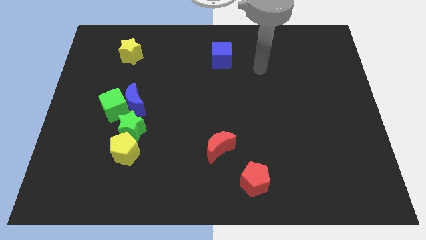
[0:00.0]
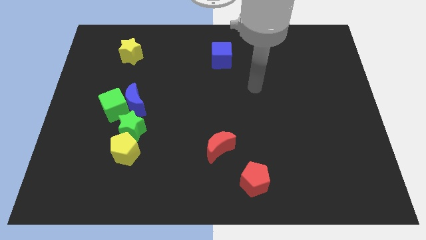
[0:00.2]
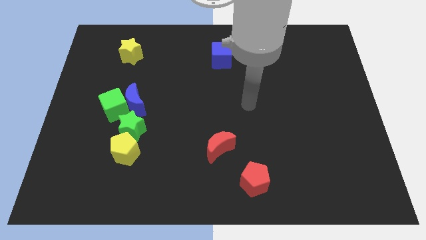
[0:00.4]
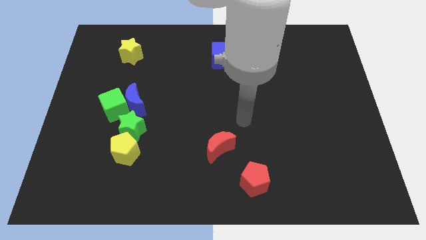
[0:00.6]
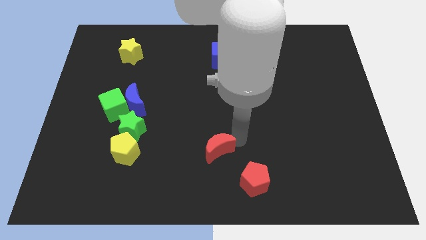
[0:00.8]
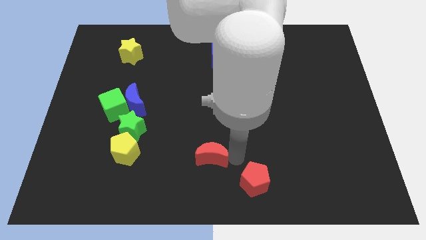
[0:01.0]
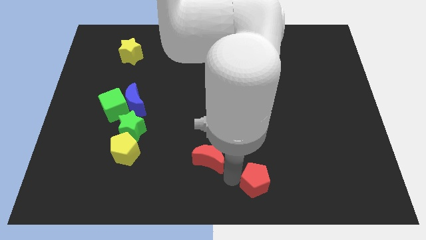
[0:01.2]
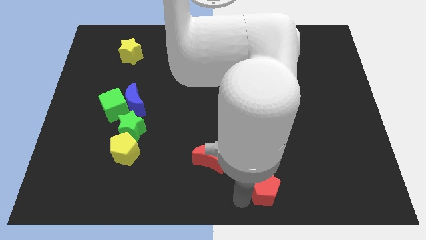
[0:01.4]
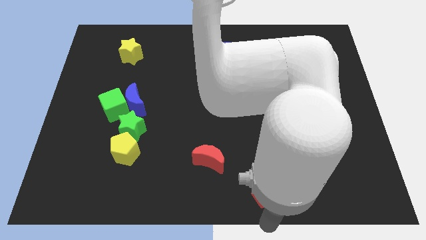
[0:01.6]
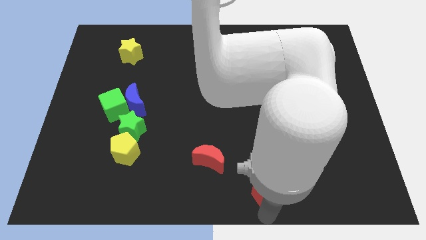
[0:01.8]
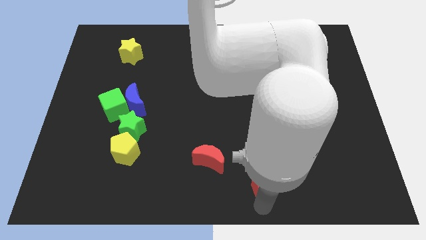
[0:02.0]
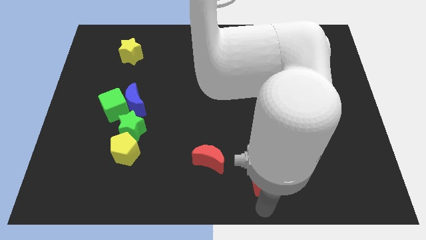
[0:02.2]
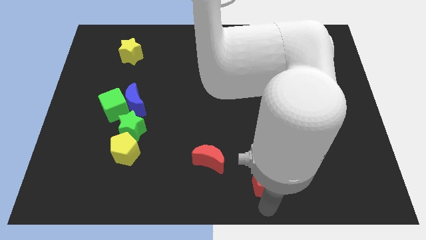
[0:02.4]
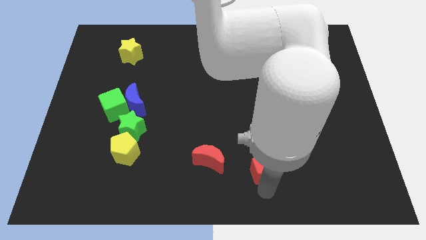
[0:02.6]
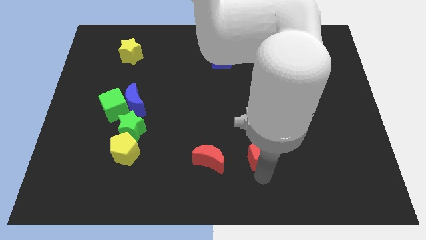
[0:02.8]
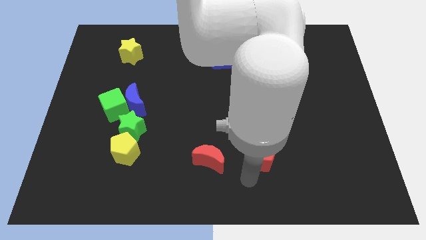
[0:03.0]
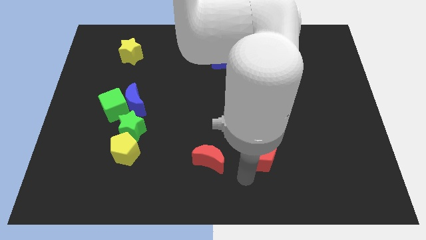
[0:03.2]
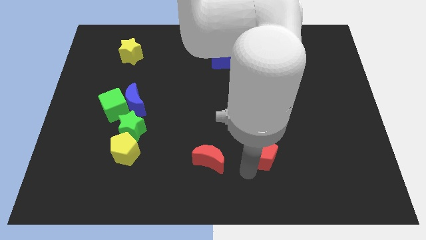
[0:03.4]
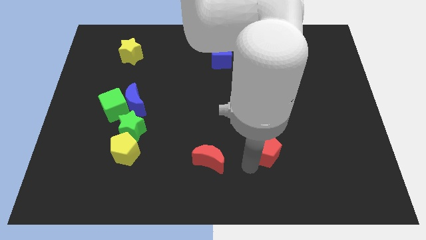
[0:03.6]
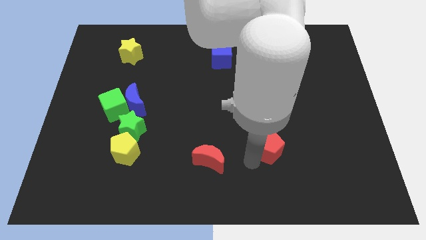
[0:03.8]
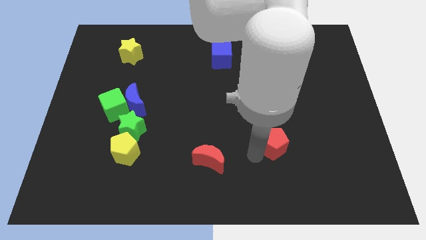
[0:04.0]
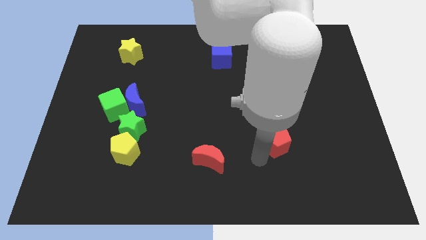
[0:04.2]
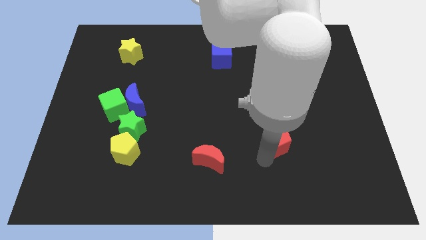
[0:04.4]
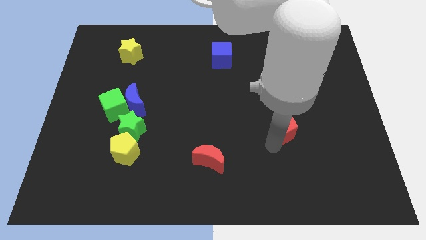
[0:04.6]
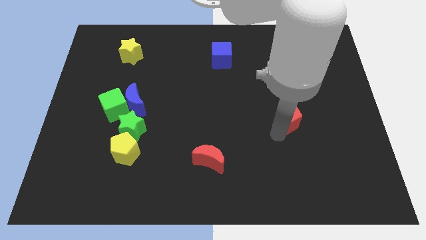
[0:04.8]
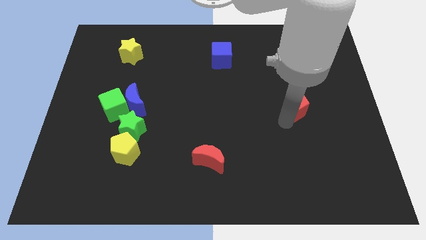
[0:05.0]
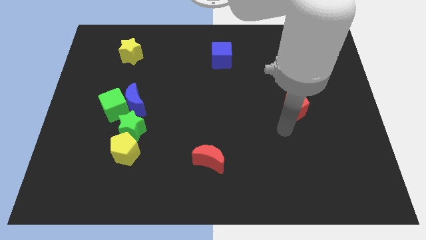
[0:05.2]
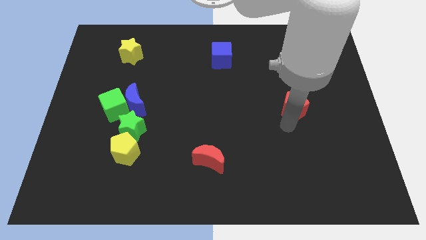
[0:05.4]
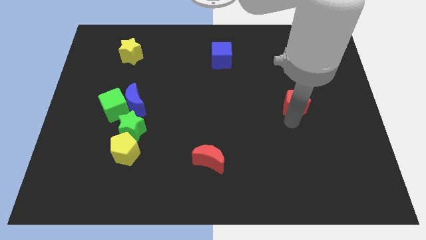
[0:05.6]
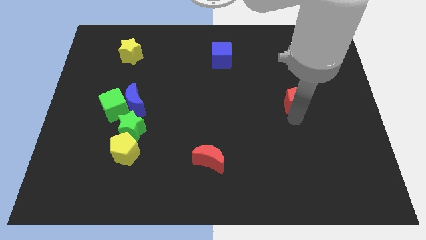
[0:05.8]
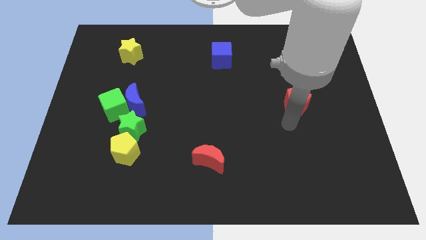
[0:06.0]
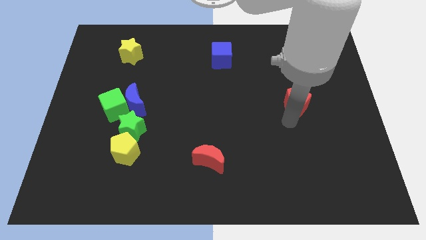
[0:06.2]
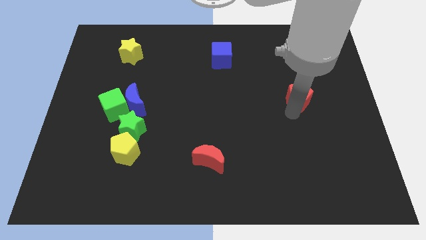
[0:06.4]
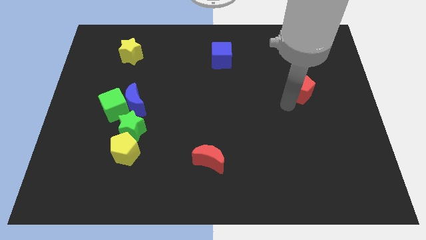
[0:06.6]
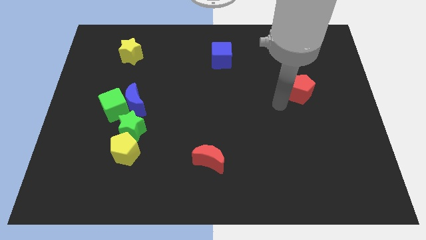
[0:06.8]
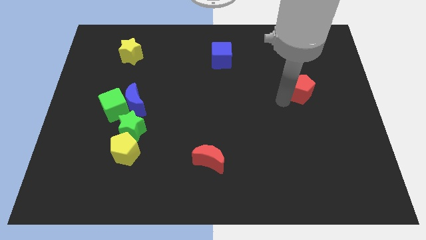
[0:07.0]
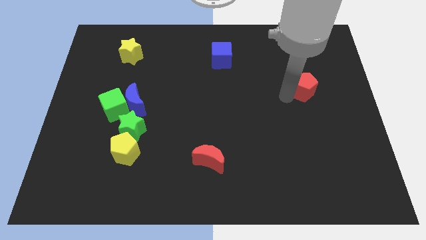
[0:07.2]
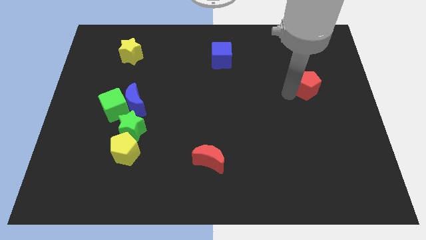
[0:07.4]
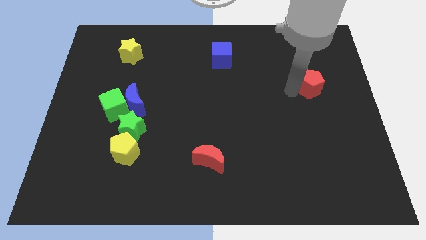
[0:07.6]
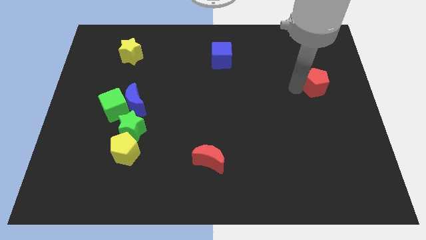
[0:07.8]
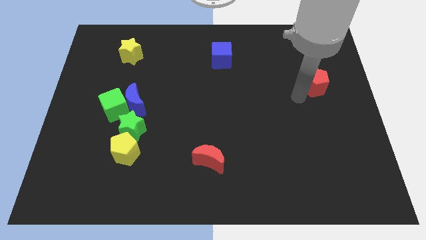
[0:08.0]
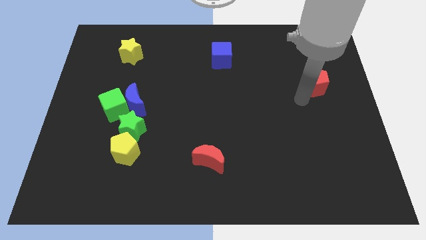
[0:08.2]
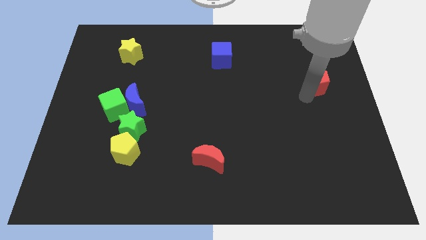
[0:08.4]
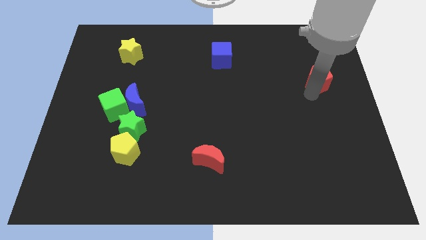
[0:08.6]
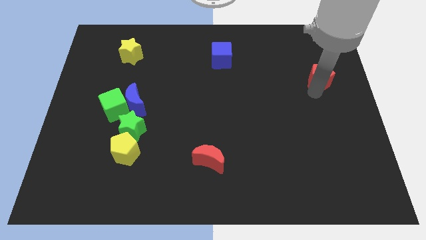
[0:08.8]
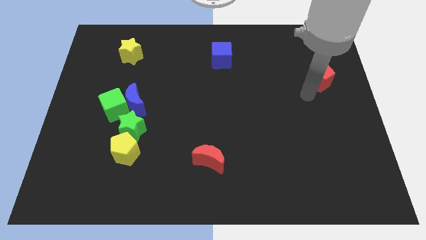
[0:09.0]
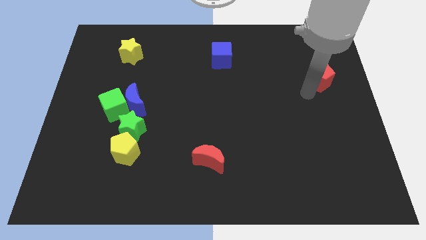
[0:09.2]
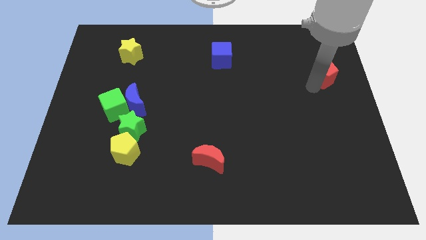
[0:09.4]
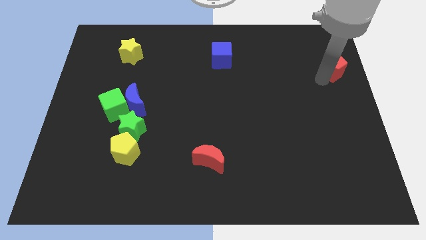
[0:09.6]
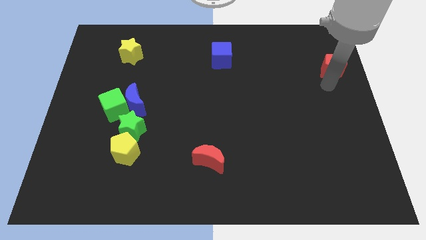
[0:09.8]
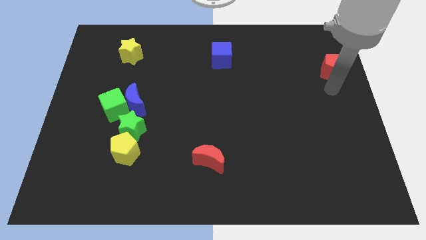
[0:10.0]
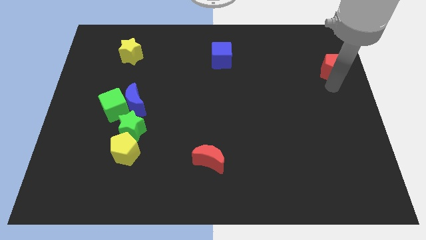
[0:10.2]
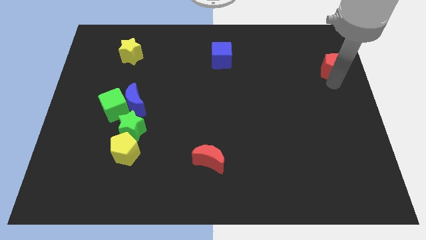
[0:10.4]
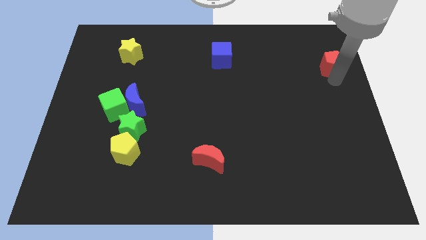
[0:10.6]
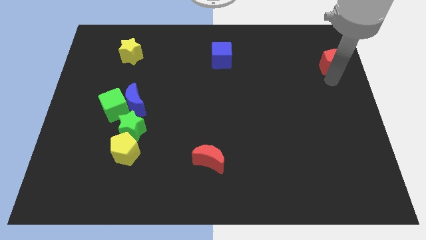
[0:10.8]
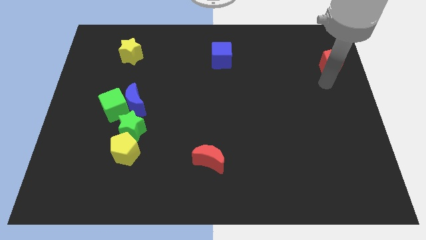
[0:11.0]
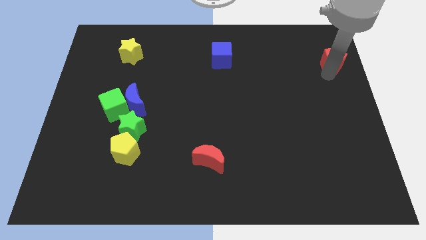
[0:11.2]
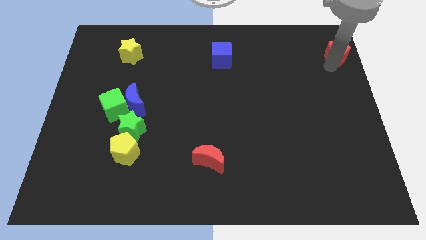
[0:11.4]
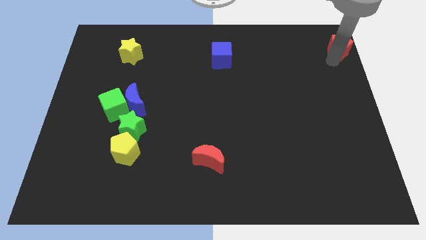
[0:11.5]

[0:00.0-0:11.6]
push the red pentagon to the top right corner

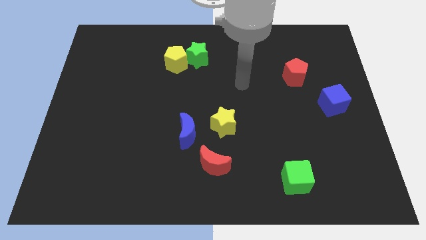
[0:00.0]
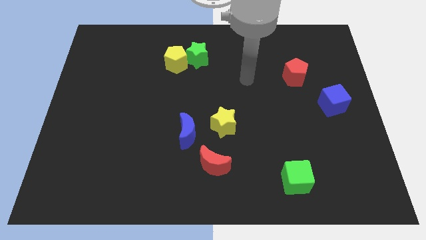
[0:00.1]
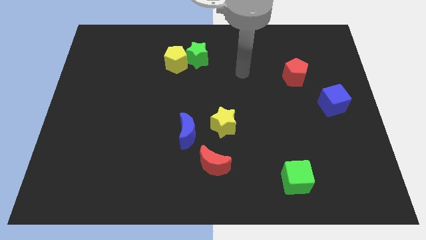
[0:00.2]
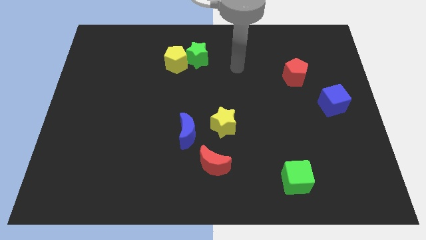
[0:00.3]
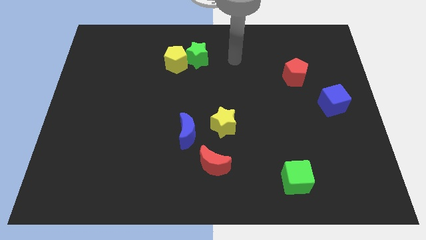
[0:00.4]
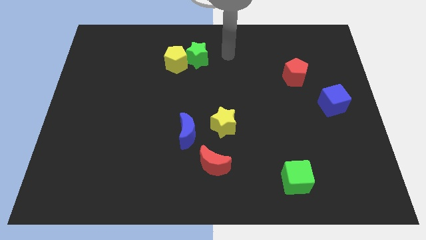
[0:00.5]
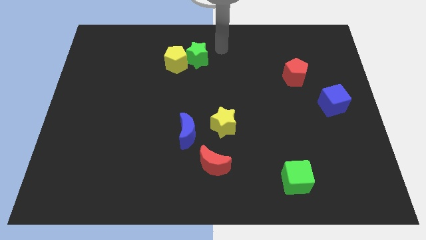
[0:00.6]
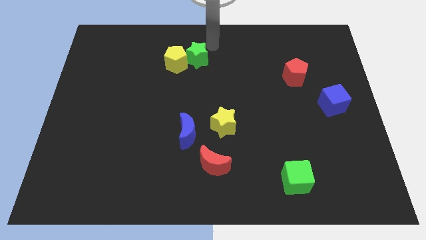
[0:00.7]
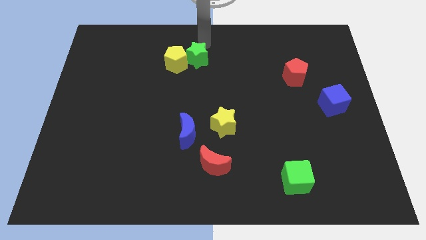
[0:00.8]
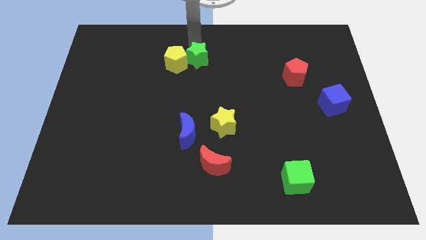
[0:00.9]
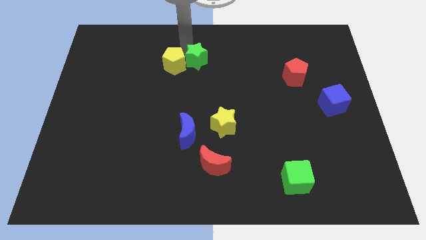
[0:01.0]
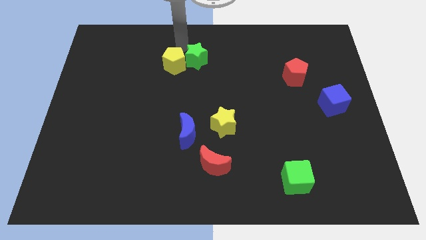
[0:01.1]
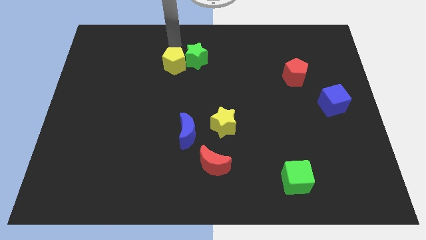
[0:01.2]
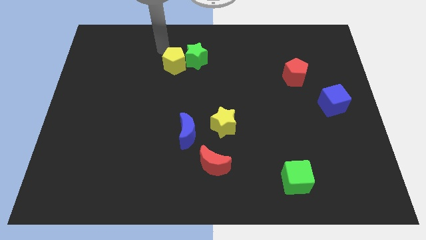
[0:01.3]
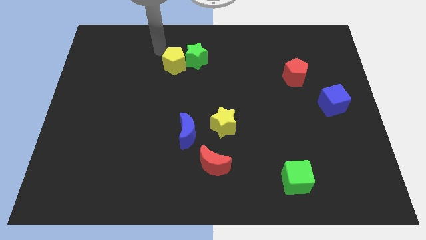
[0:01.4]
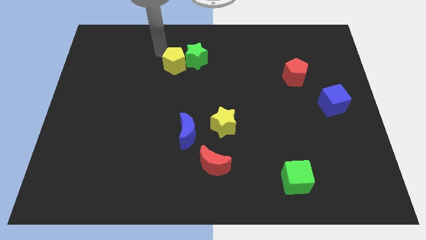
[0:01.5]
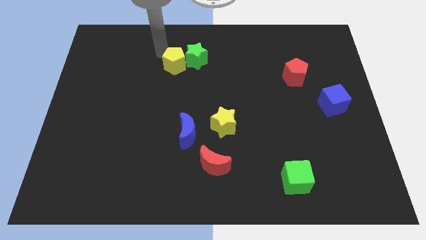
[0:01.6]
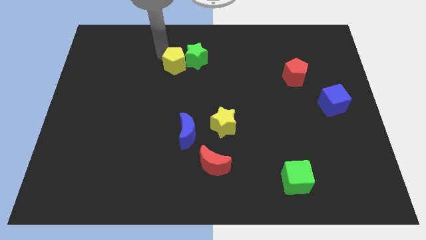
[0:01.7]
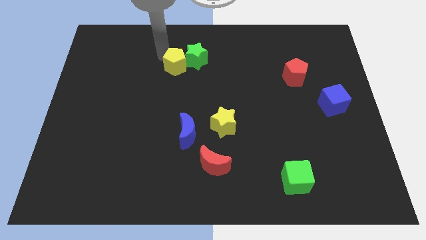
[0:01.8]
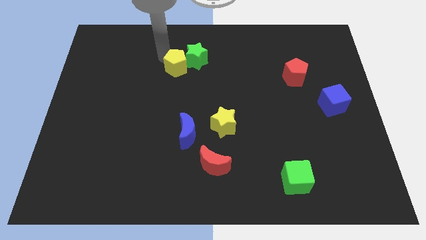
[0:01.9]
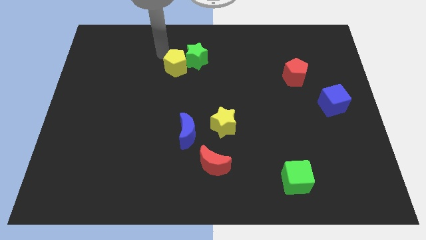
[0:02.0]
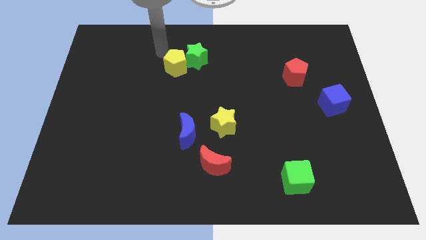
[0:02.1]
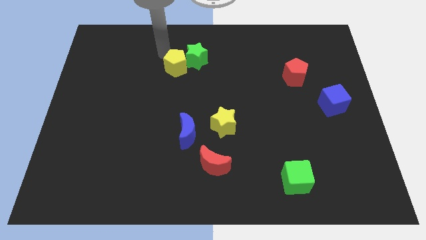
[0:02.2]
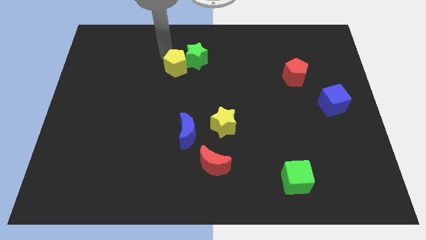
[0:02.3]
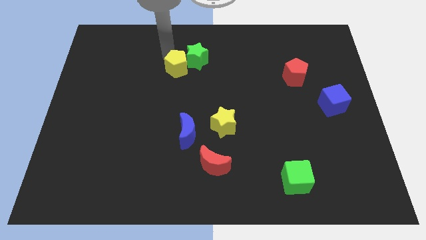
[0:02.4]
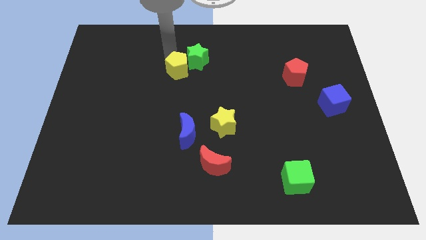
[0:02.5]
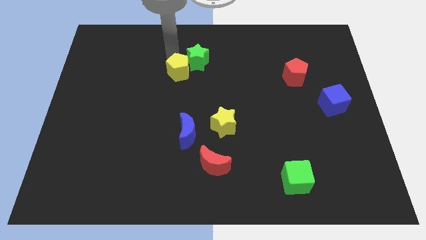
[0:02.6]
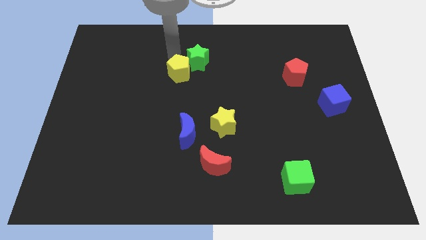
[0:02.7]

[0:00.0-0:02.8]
push the yellow pentagon to the center
